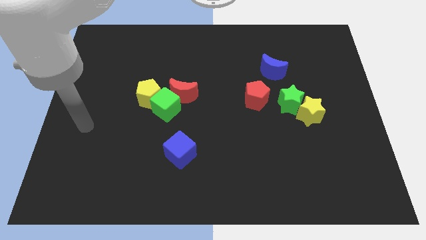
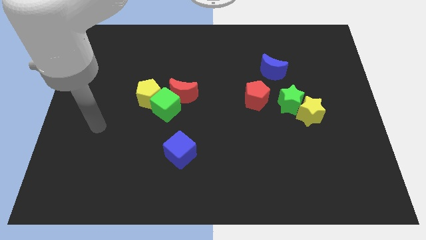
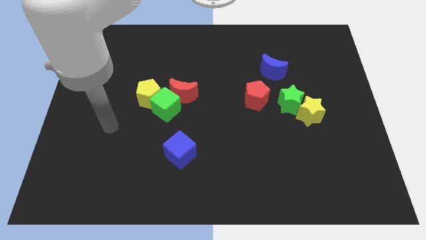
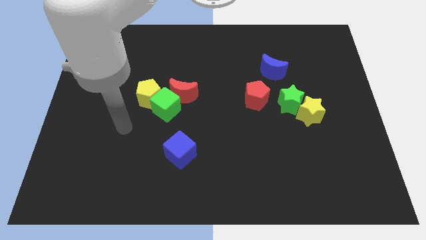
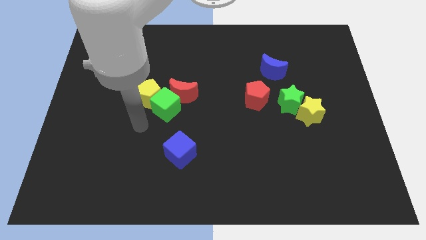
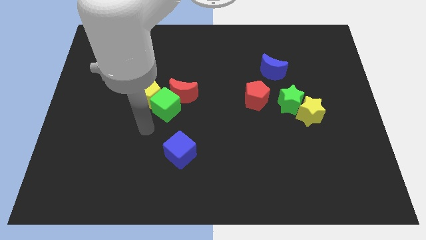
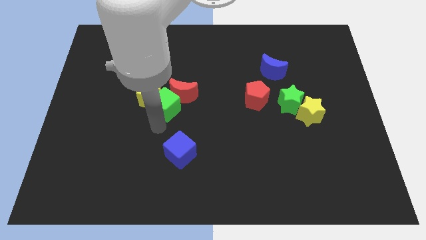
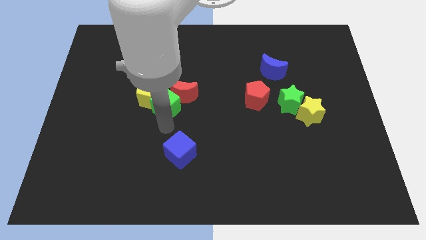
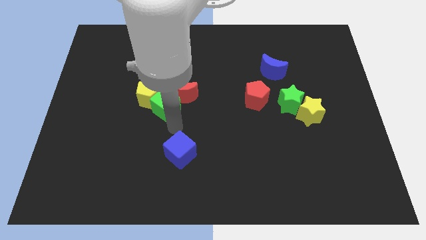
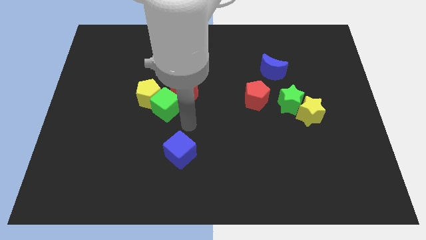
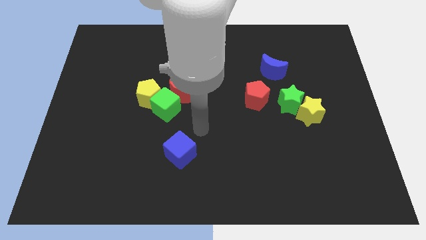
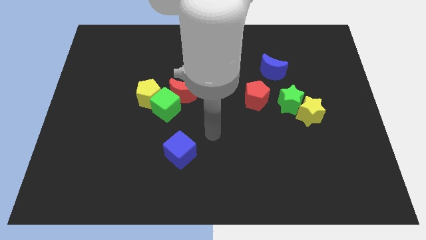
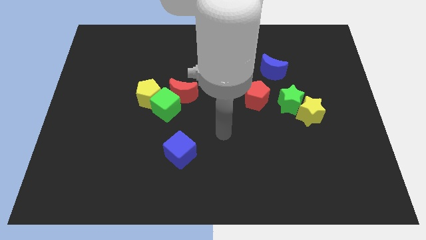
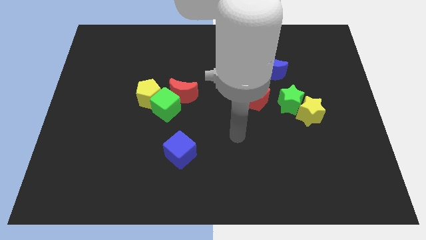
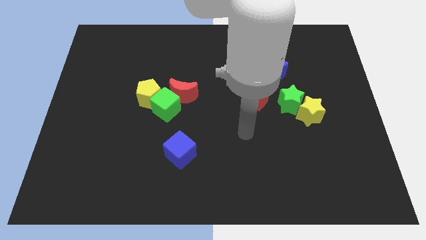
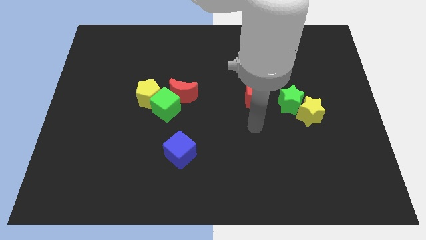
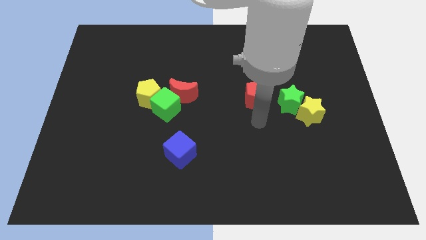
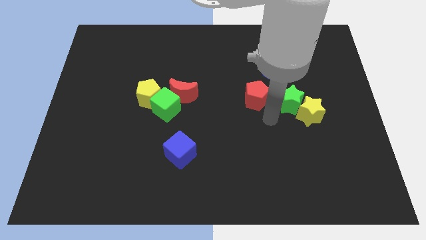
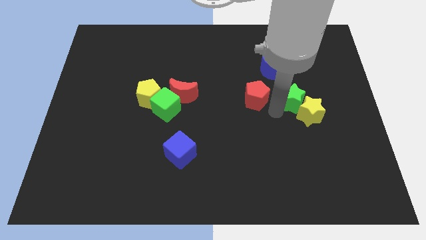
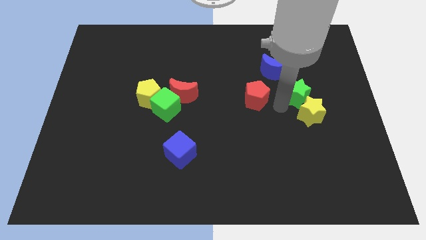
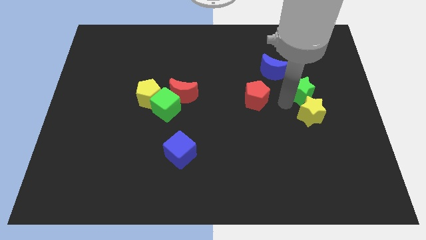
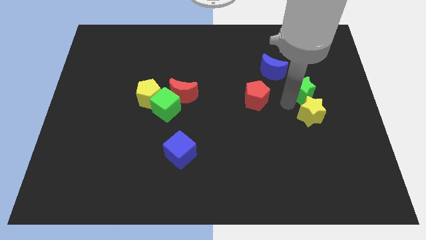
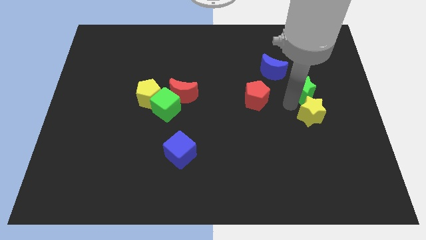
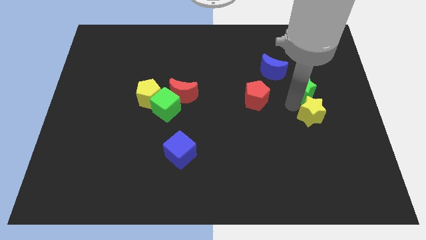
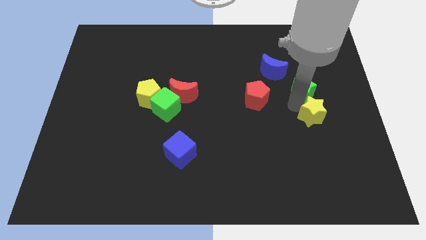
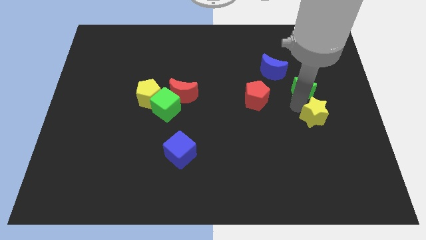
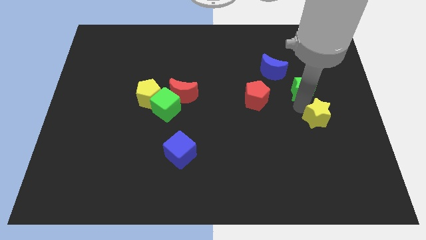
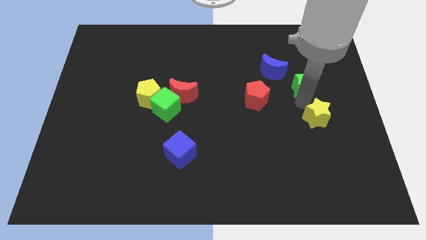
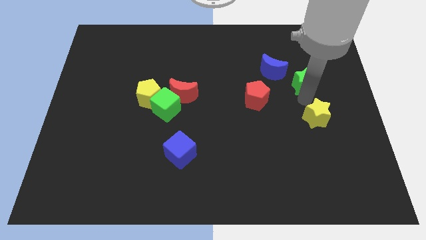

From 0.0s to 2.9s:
separate the yellow star from the green star

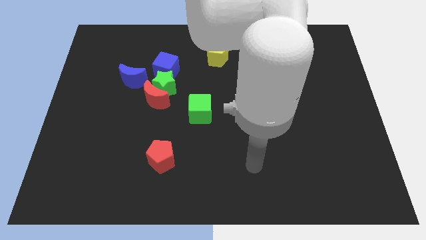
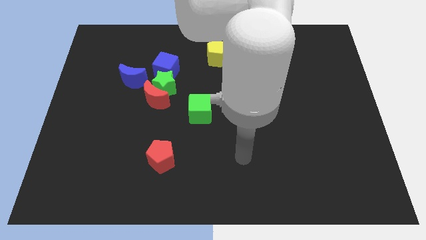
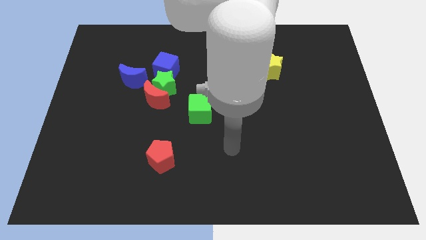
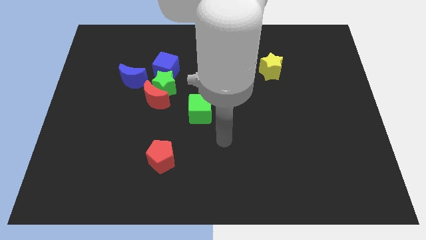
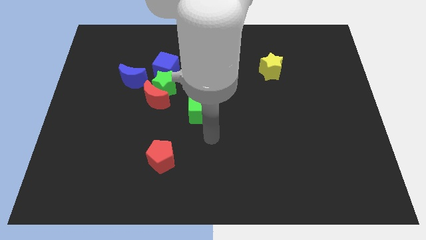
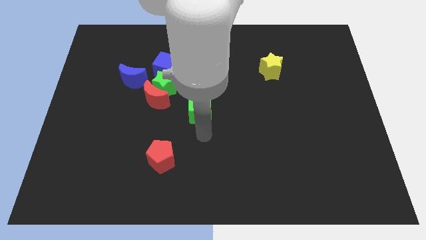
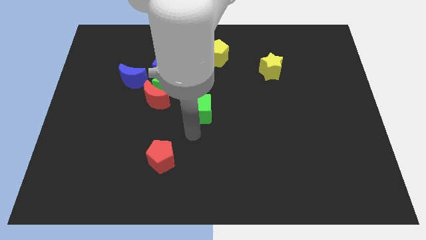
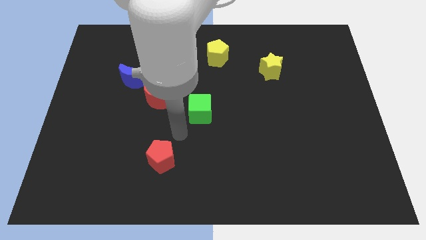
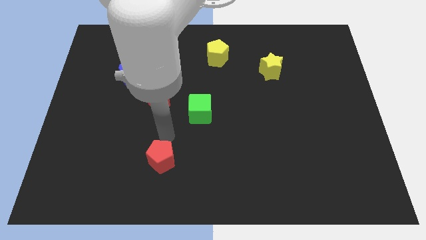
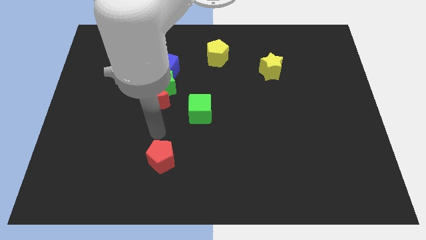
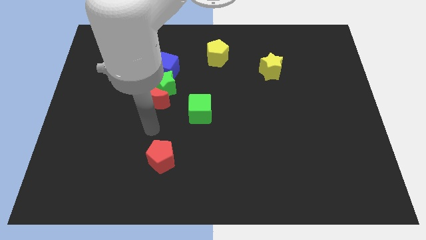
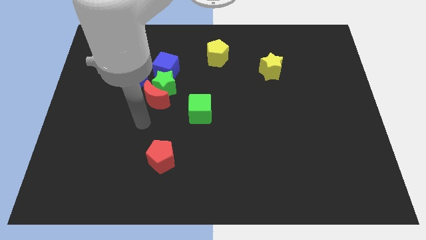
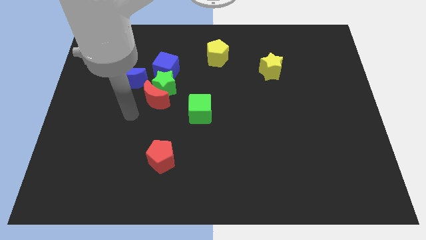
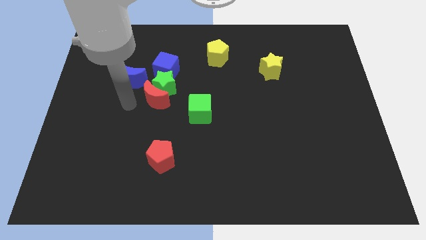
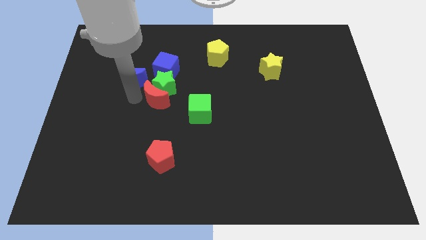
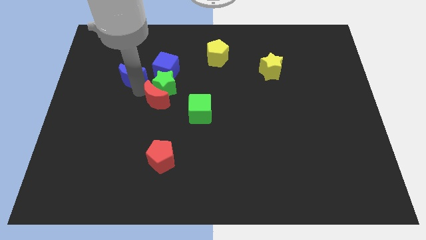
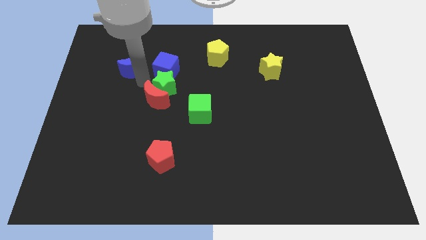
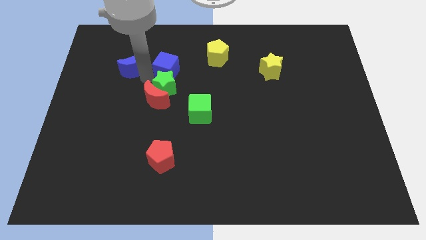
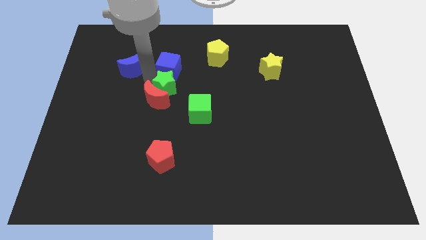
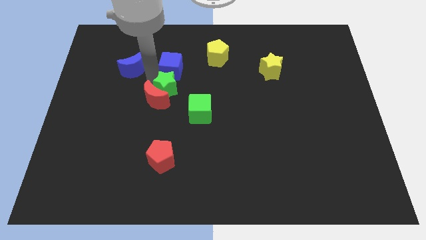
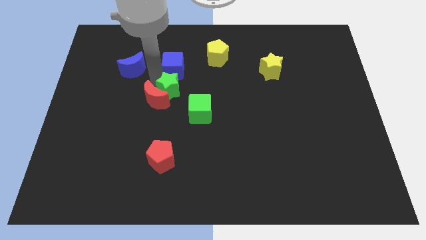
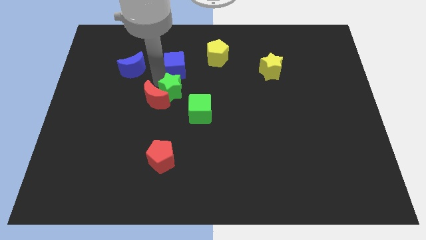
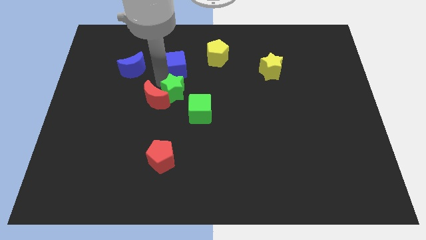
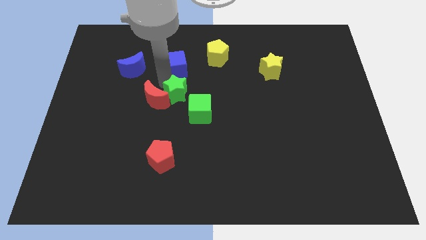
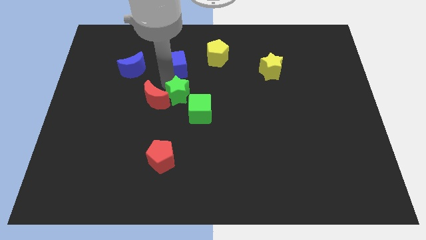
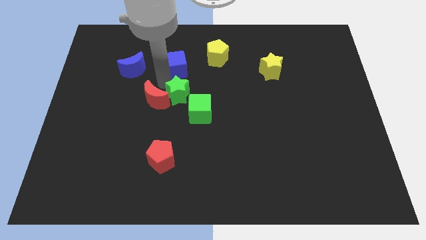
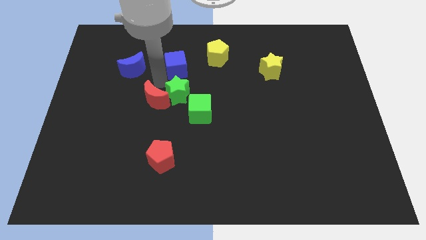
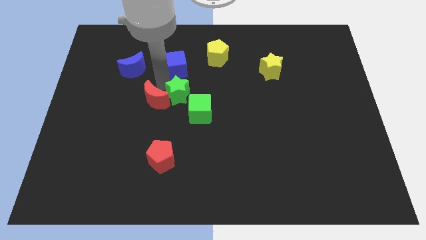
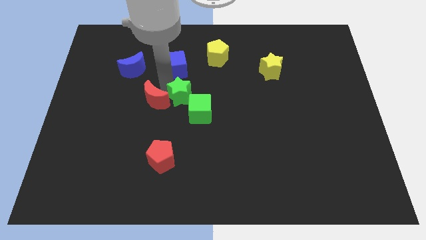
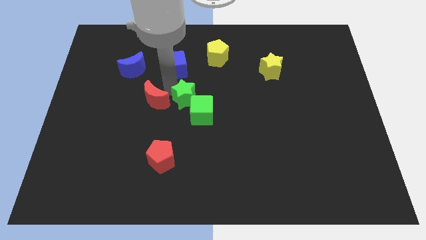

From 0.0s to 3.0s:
move the green star away from the red moon, blue cube, and blue moon

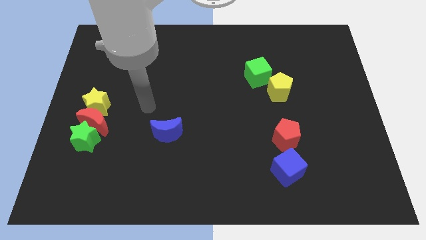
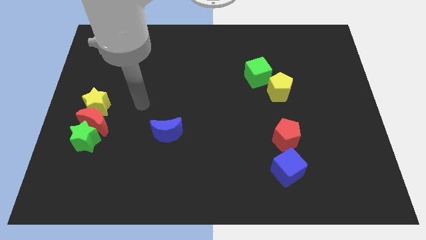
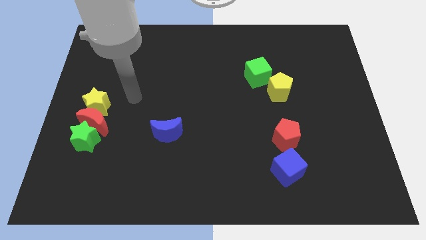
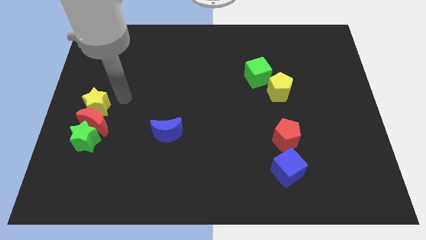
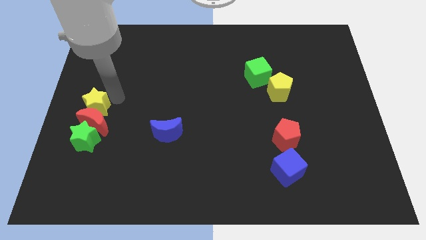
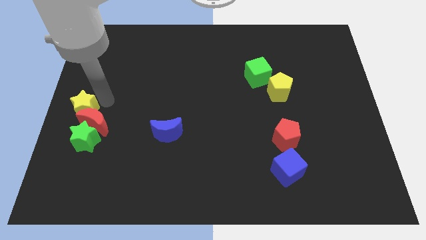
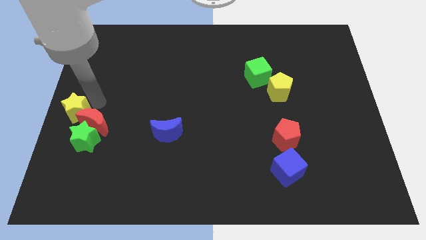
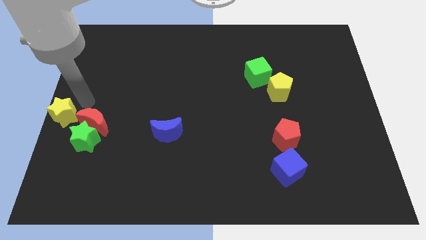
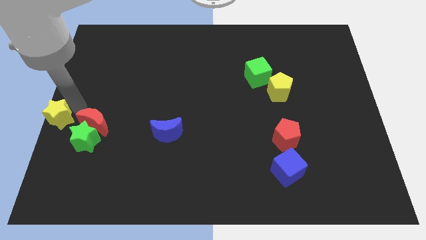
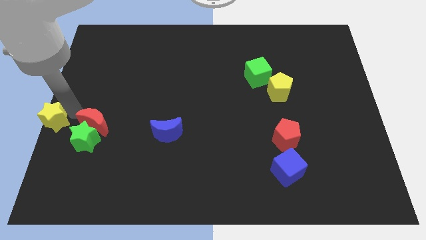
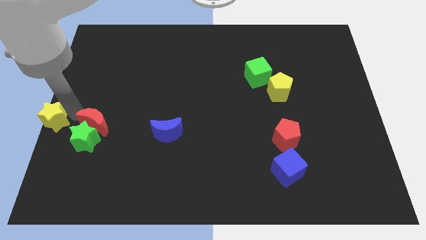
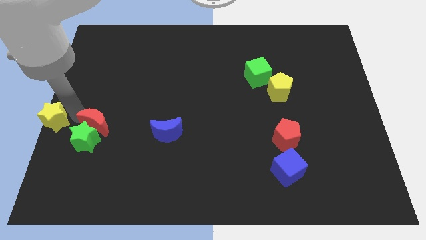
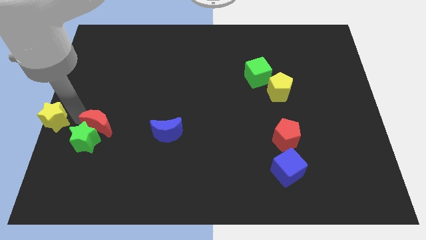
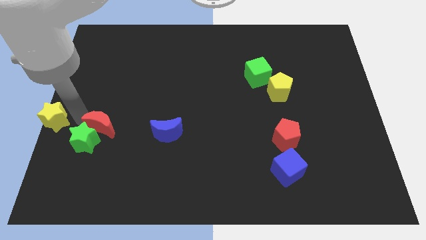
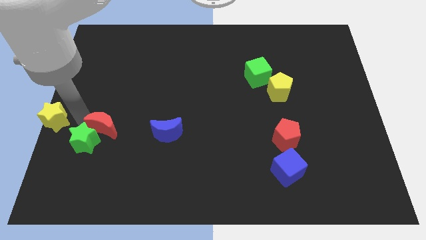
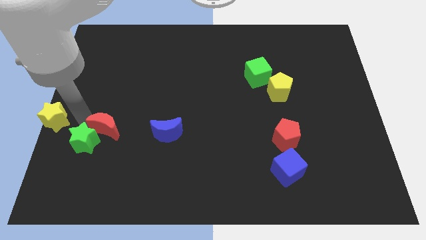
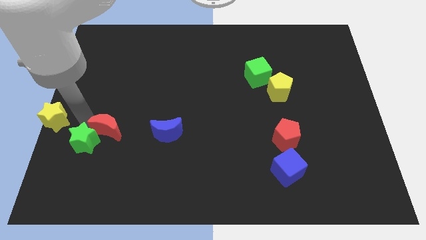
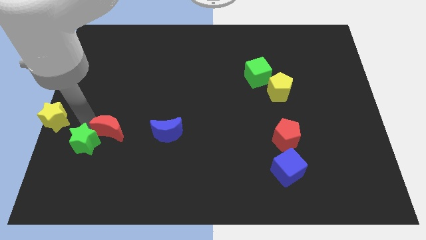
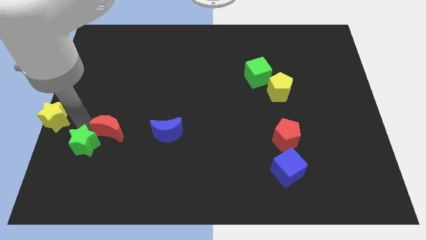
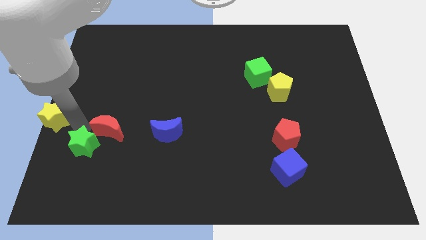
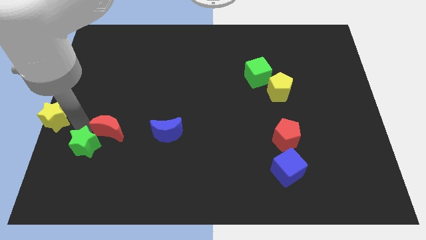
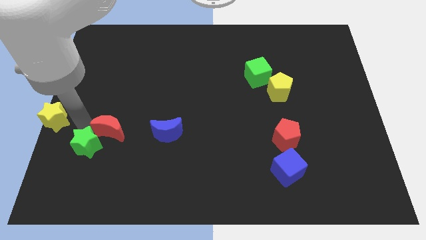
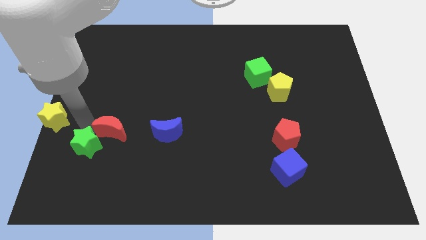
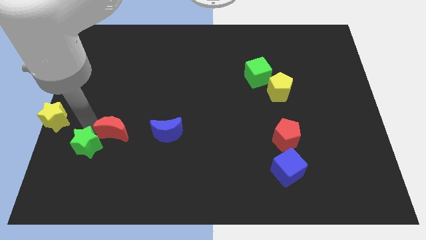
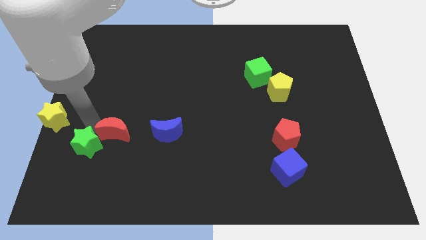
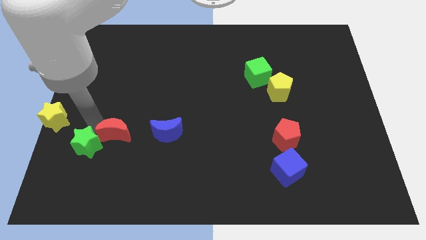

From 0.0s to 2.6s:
separate the red moon from the green star and yellow star

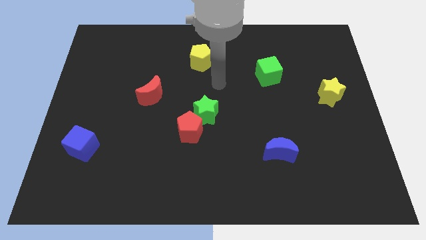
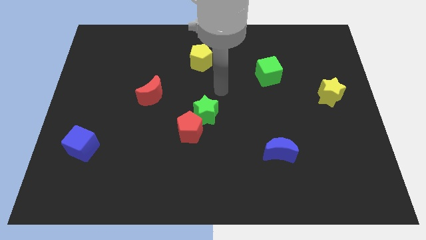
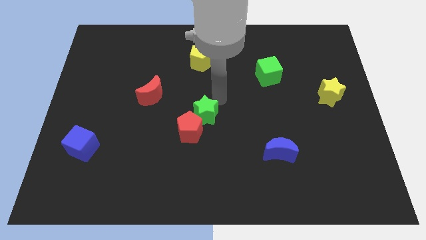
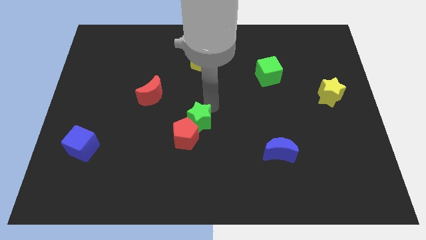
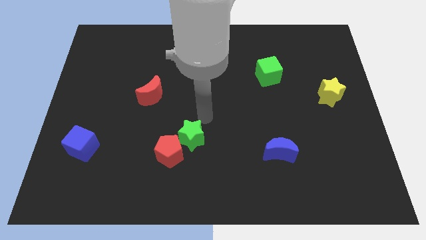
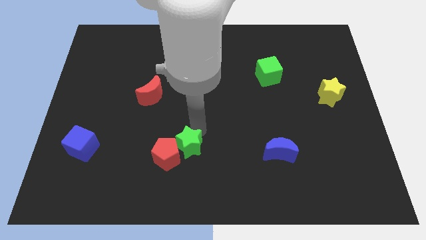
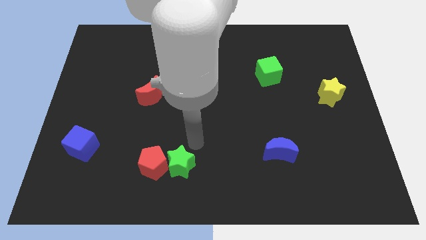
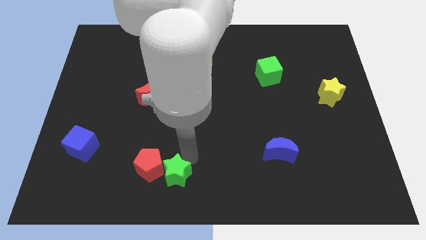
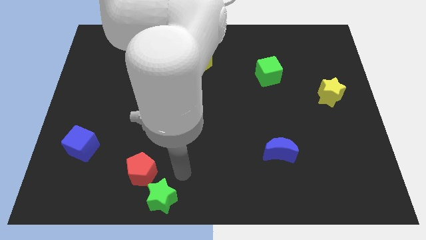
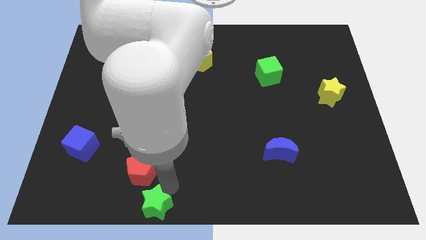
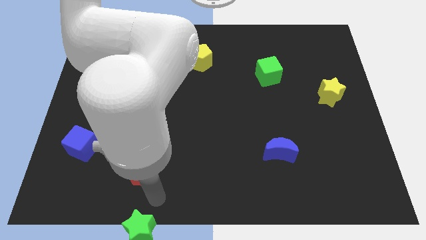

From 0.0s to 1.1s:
move the red pentagon away from the green star

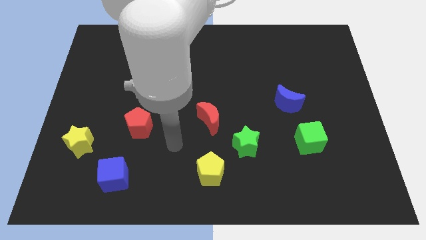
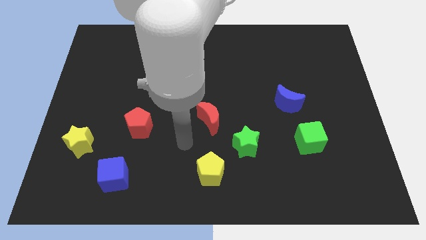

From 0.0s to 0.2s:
separate the green star from the yellow pentagon
